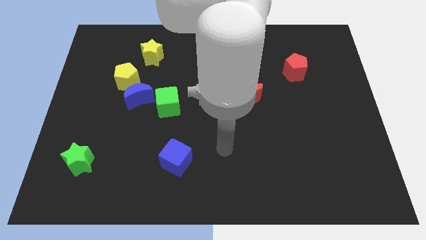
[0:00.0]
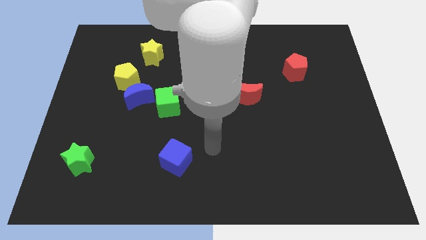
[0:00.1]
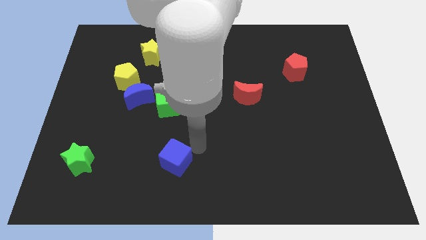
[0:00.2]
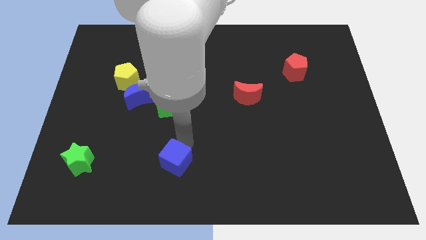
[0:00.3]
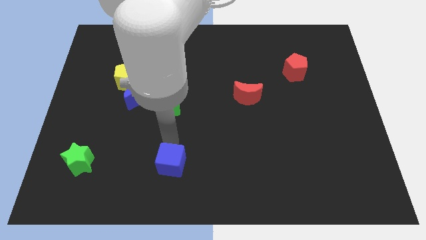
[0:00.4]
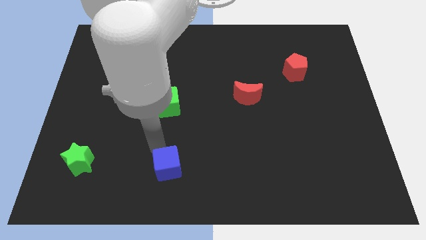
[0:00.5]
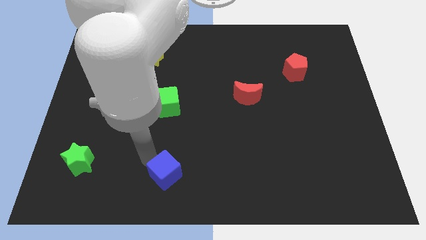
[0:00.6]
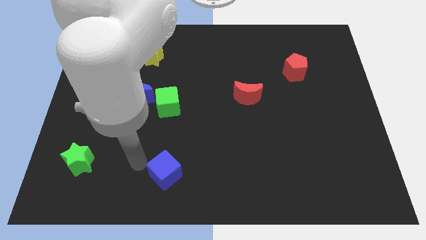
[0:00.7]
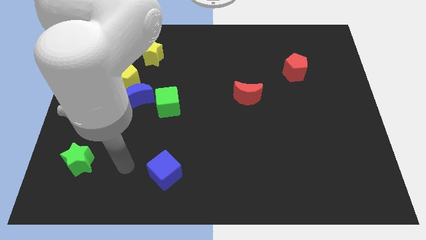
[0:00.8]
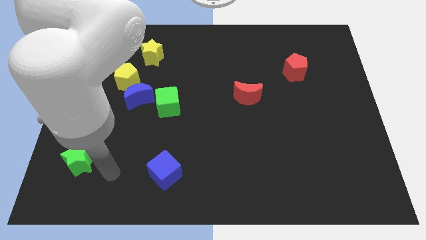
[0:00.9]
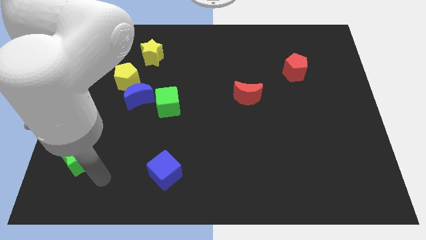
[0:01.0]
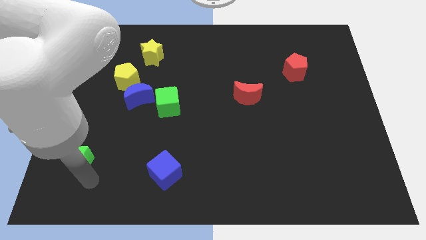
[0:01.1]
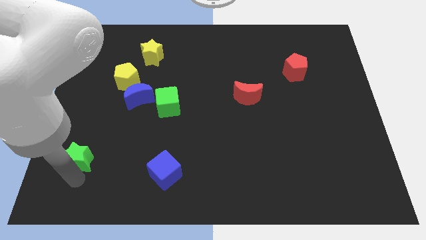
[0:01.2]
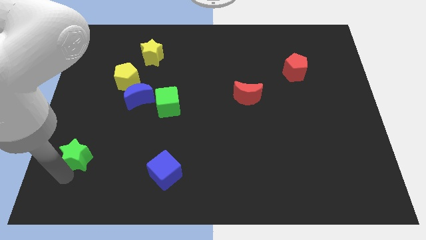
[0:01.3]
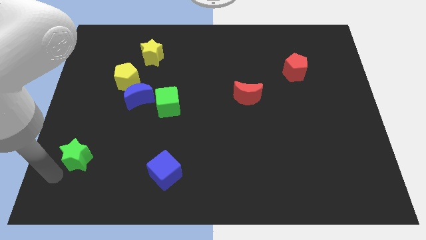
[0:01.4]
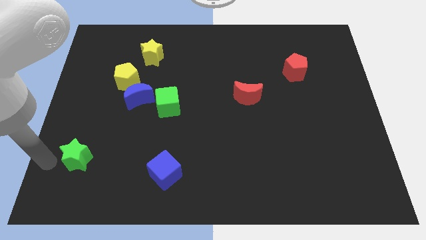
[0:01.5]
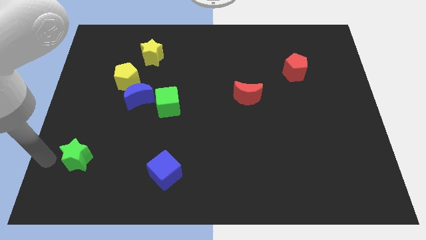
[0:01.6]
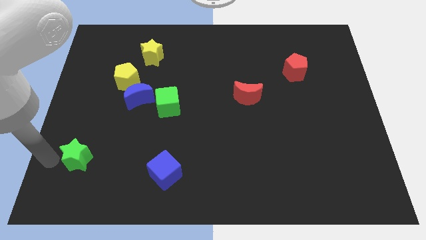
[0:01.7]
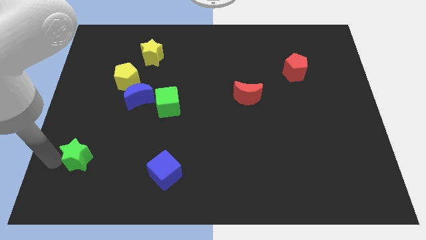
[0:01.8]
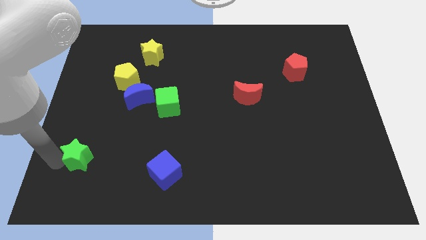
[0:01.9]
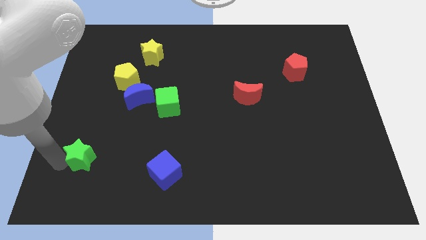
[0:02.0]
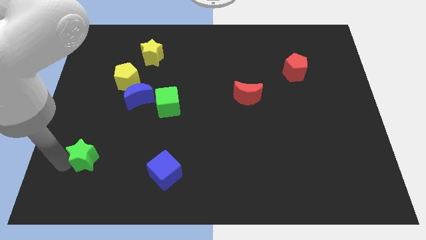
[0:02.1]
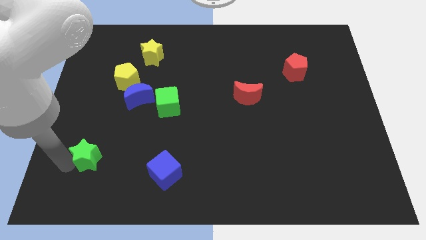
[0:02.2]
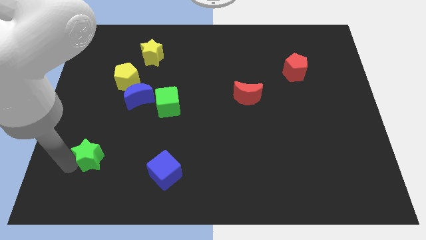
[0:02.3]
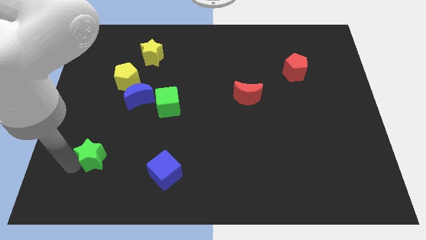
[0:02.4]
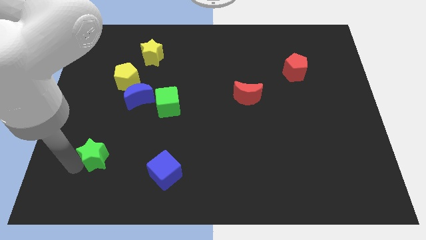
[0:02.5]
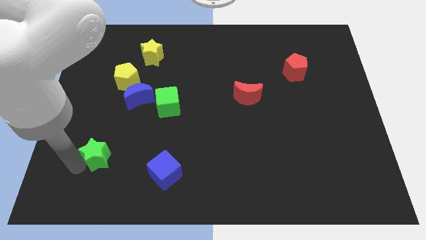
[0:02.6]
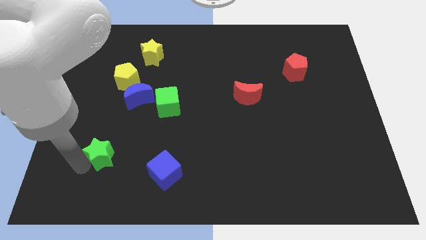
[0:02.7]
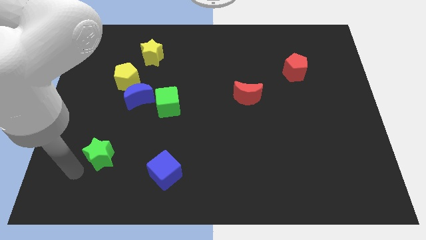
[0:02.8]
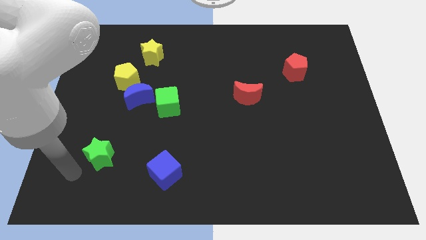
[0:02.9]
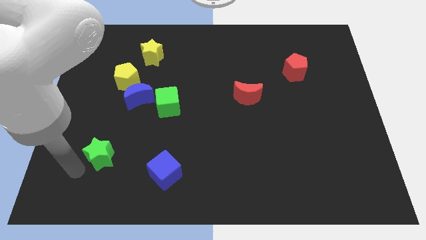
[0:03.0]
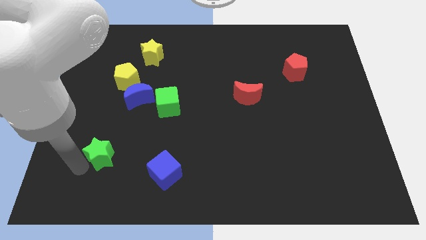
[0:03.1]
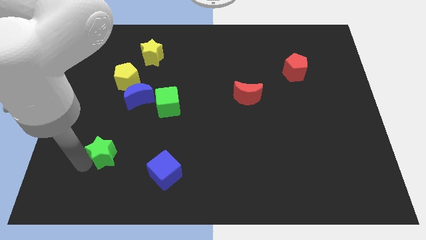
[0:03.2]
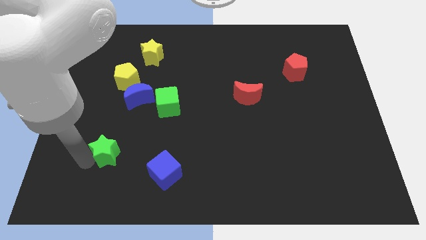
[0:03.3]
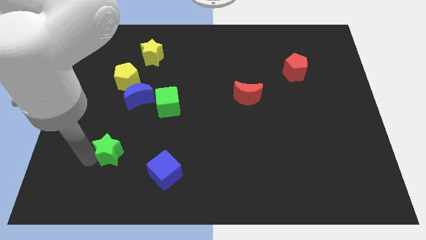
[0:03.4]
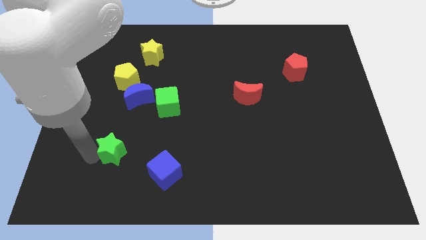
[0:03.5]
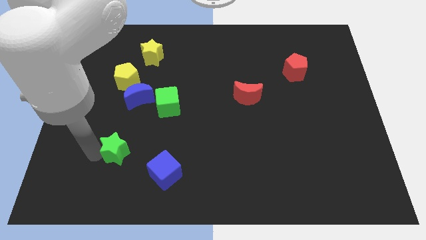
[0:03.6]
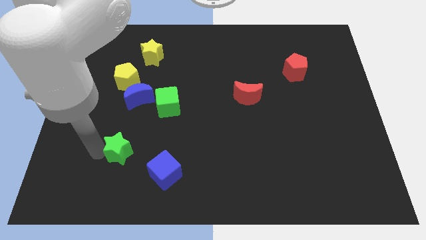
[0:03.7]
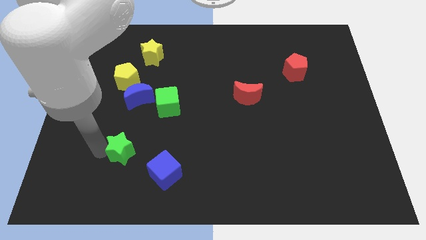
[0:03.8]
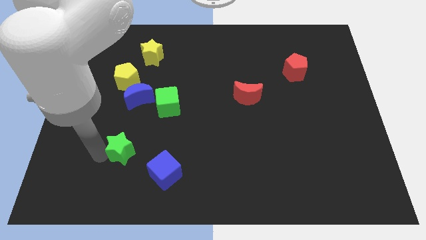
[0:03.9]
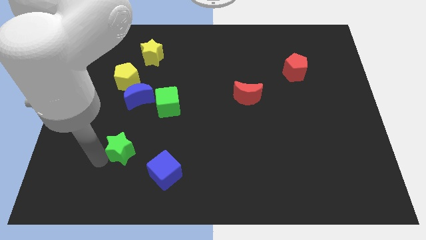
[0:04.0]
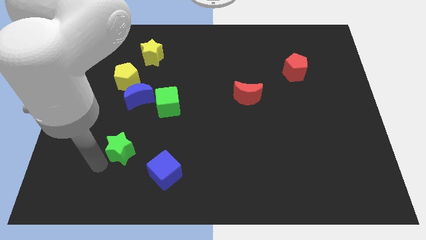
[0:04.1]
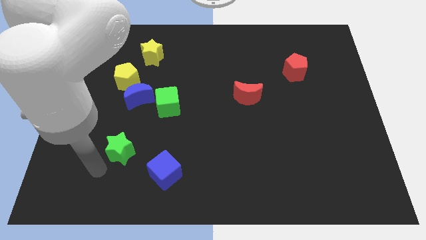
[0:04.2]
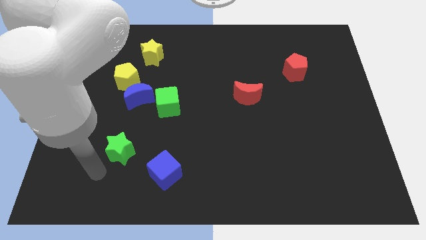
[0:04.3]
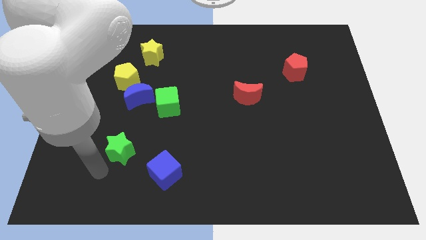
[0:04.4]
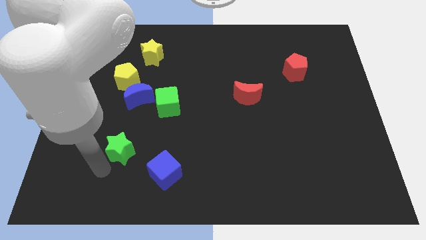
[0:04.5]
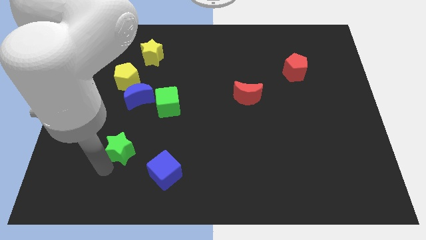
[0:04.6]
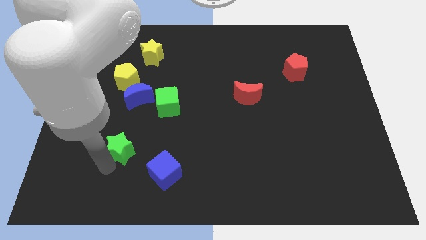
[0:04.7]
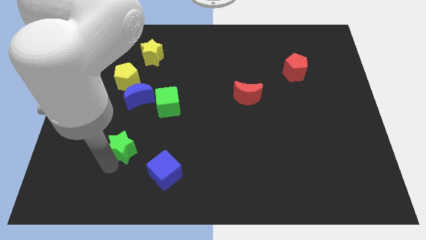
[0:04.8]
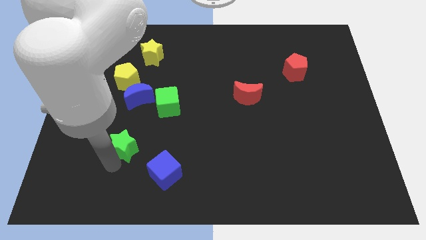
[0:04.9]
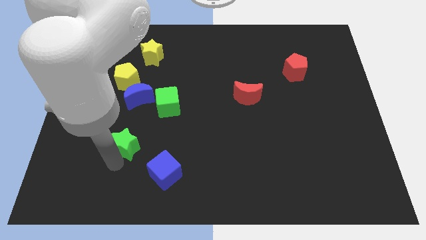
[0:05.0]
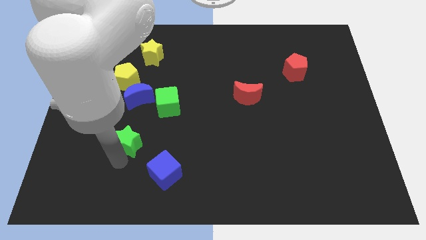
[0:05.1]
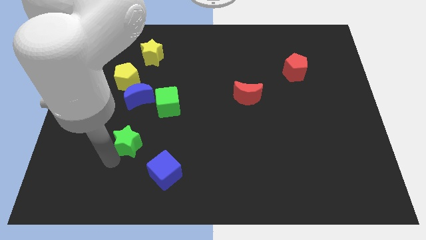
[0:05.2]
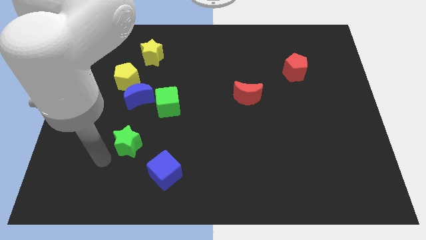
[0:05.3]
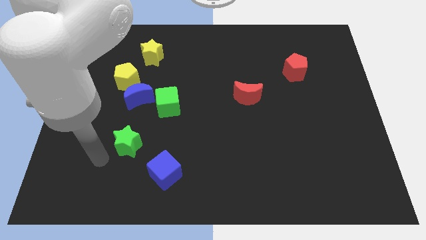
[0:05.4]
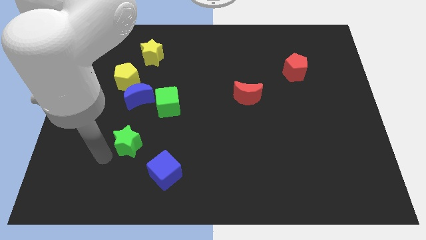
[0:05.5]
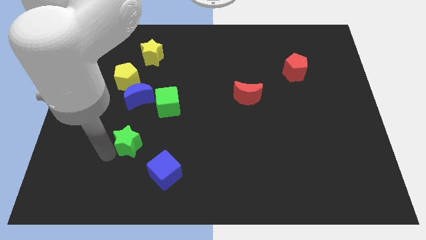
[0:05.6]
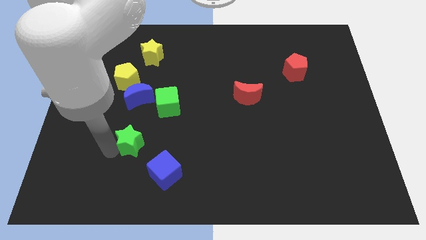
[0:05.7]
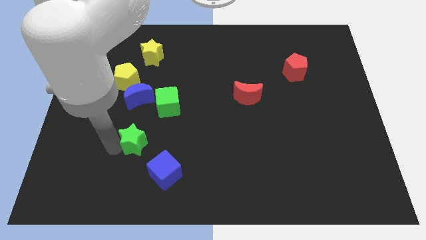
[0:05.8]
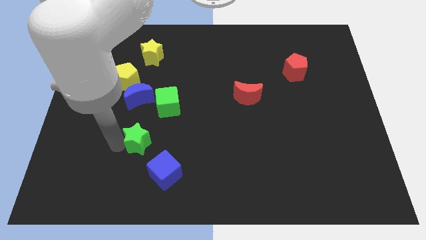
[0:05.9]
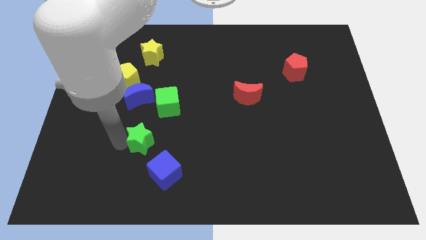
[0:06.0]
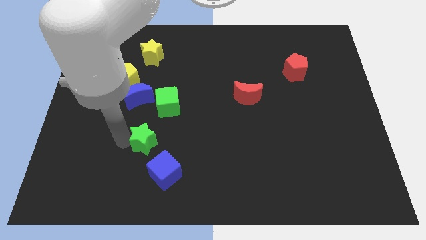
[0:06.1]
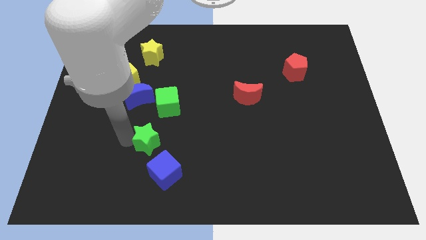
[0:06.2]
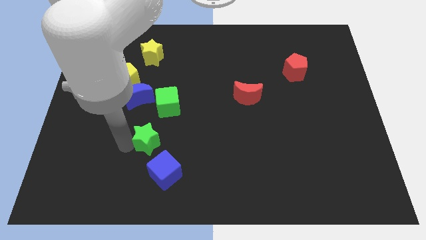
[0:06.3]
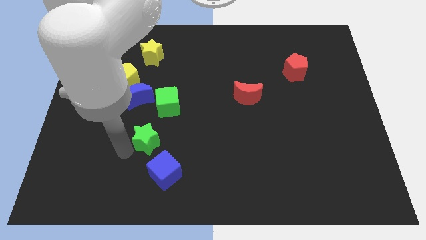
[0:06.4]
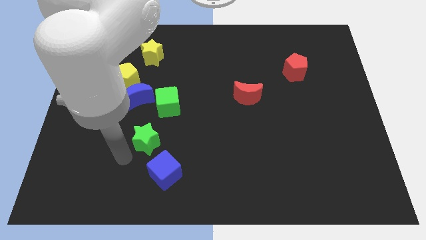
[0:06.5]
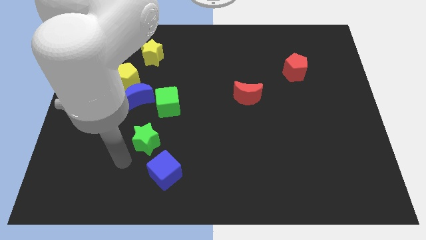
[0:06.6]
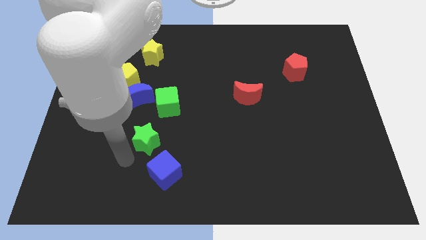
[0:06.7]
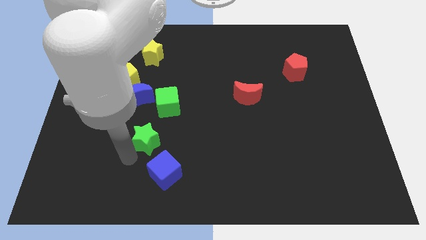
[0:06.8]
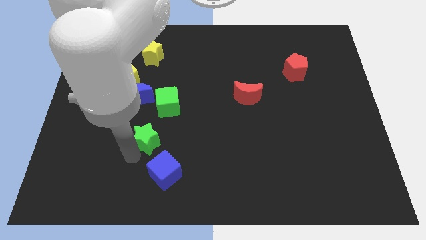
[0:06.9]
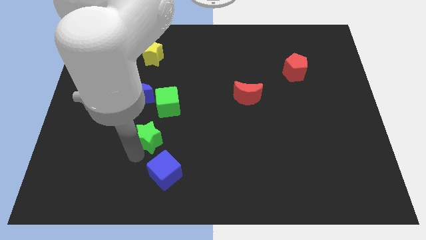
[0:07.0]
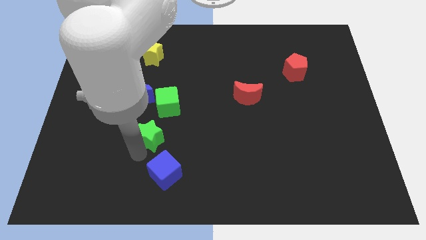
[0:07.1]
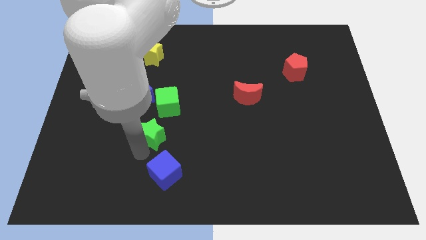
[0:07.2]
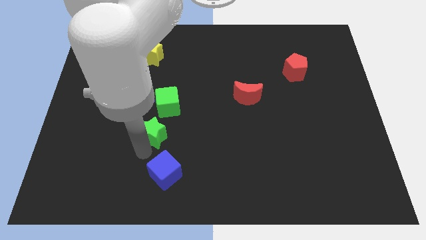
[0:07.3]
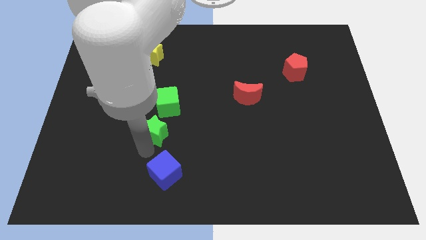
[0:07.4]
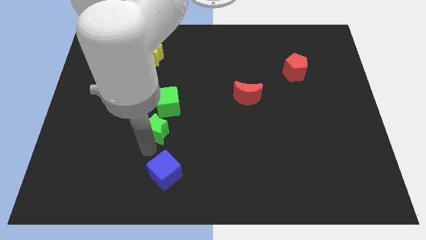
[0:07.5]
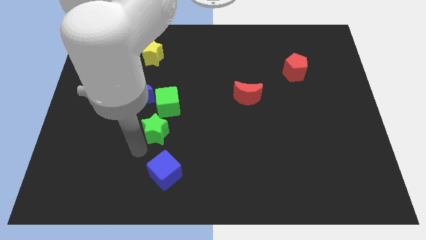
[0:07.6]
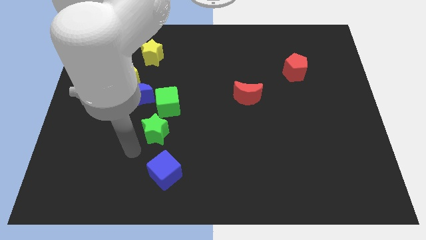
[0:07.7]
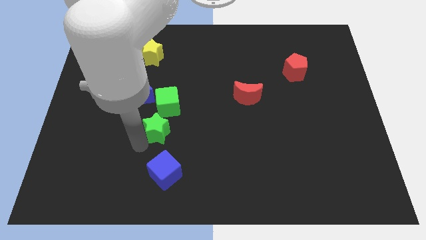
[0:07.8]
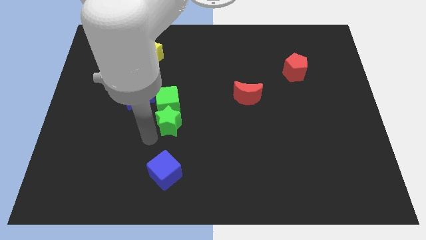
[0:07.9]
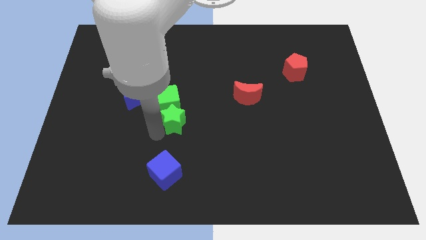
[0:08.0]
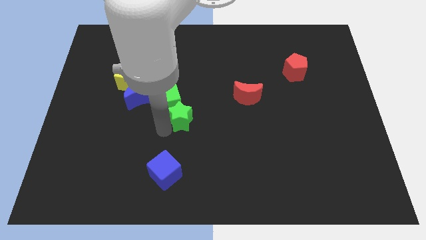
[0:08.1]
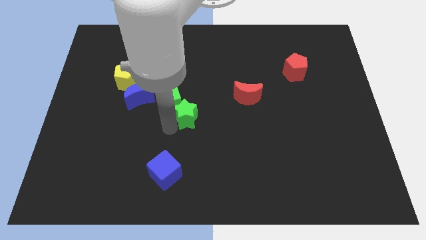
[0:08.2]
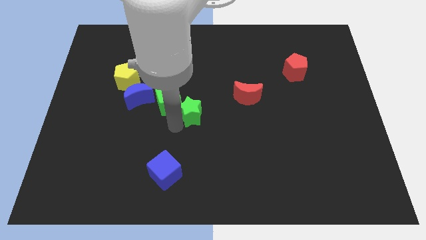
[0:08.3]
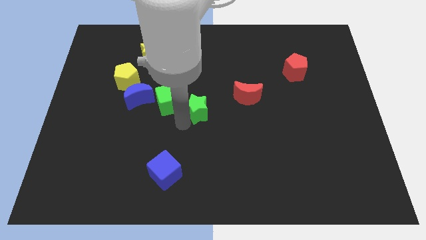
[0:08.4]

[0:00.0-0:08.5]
push the green star to the right side of the blue moon
